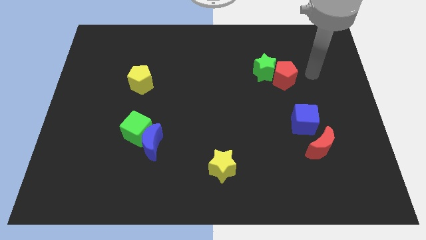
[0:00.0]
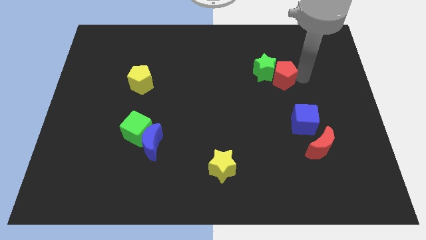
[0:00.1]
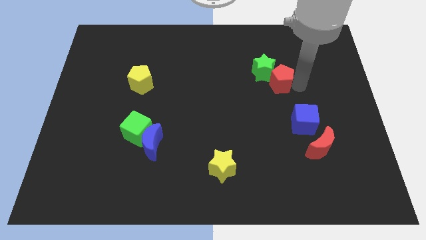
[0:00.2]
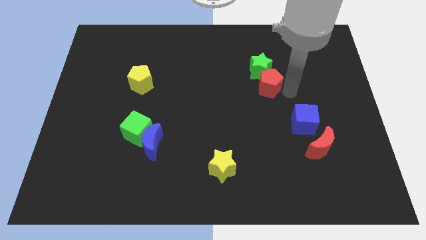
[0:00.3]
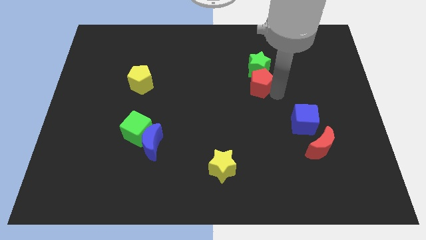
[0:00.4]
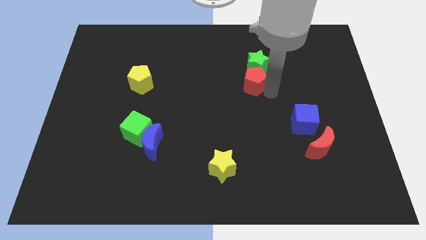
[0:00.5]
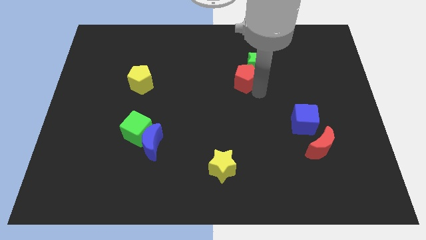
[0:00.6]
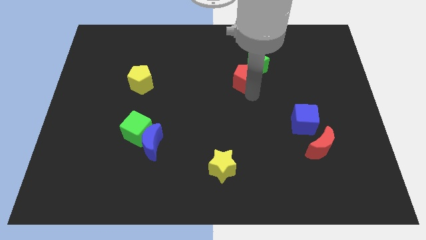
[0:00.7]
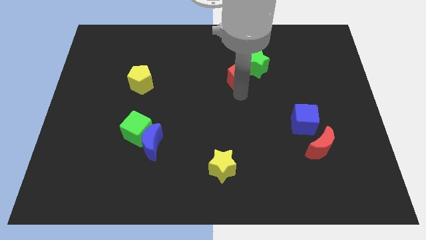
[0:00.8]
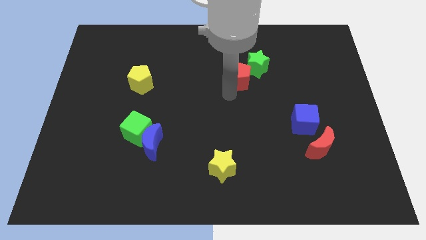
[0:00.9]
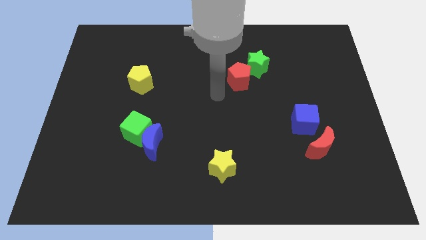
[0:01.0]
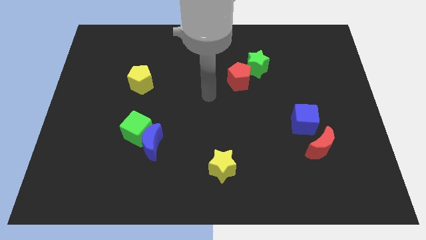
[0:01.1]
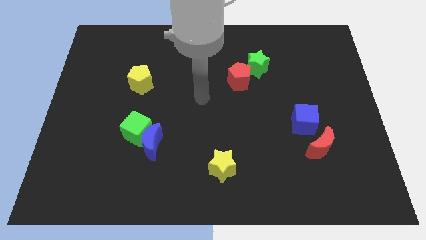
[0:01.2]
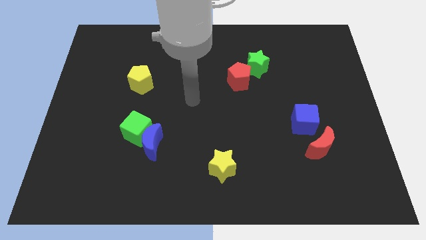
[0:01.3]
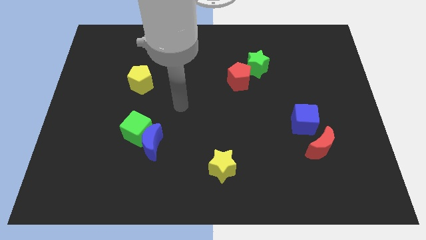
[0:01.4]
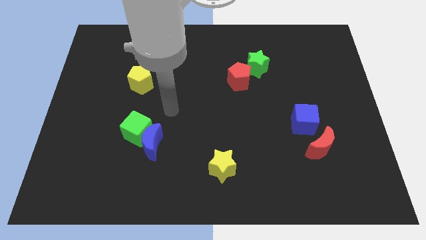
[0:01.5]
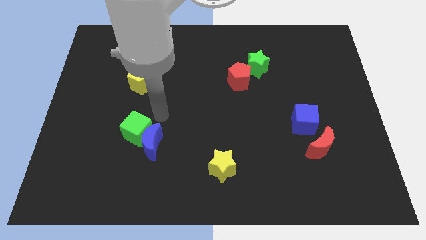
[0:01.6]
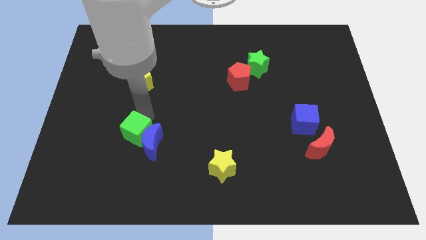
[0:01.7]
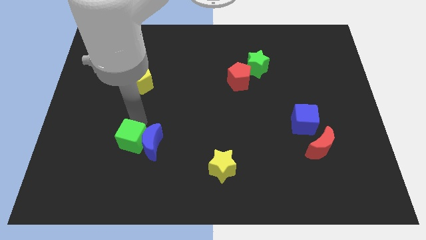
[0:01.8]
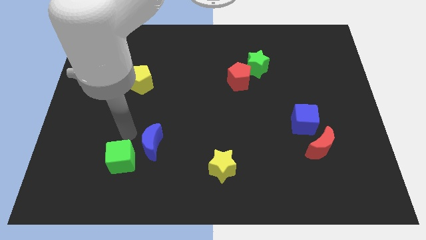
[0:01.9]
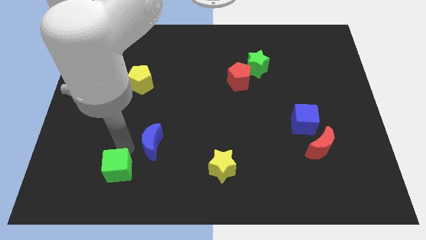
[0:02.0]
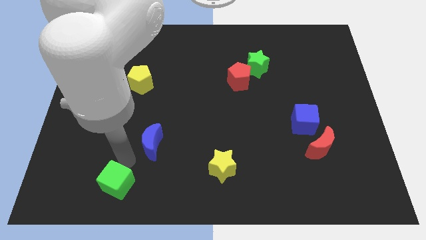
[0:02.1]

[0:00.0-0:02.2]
move the blue moon away from the green cube

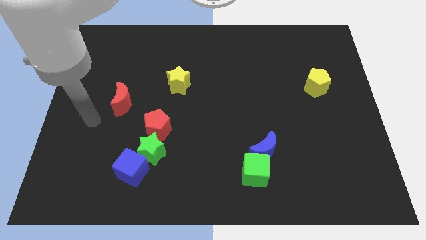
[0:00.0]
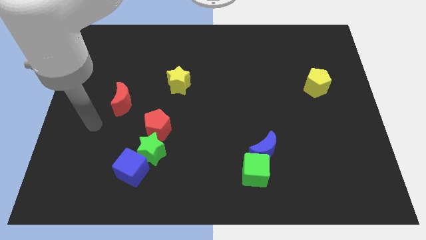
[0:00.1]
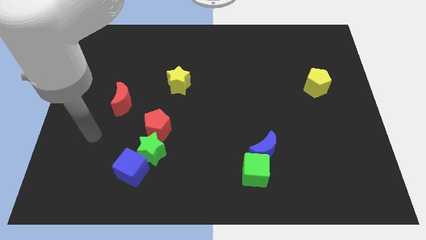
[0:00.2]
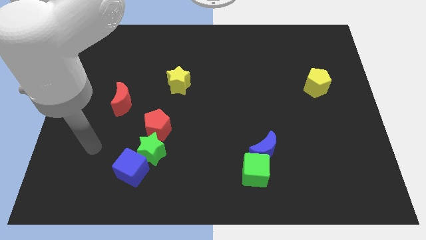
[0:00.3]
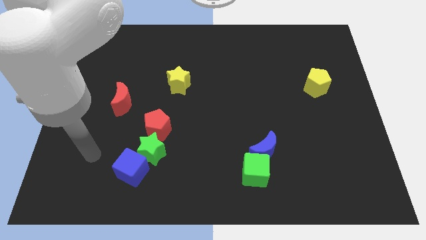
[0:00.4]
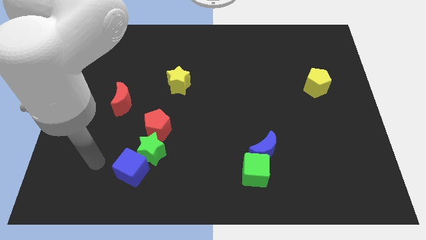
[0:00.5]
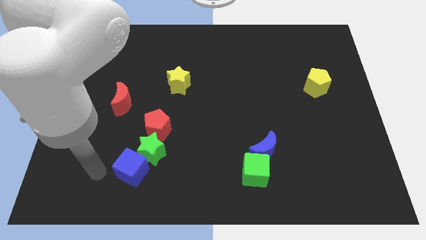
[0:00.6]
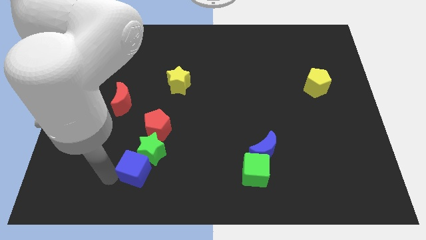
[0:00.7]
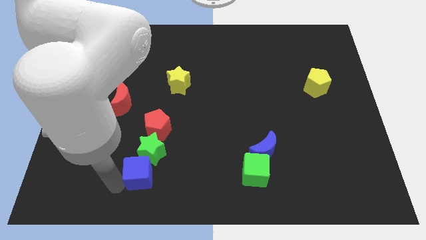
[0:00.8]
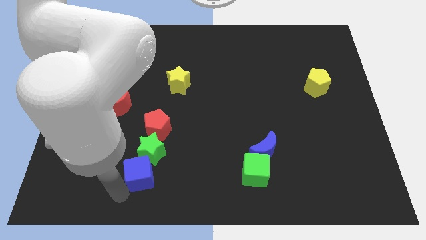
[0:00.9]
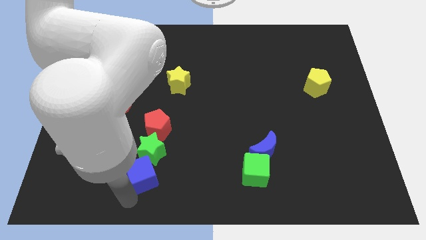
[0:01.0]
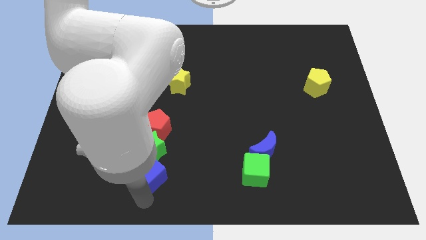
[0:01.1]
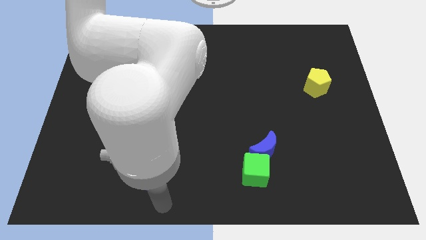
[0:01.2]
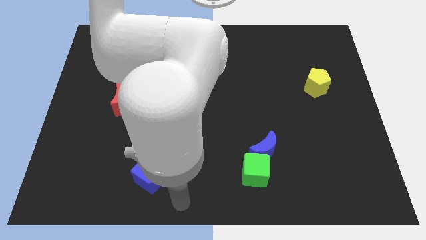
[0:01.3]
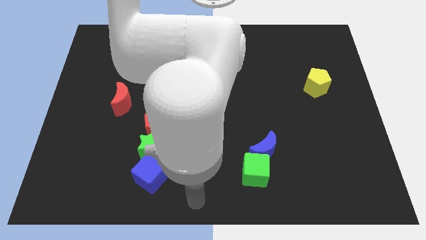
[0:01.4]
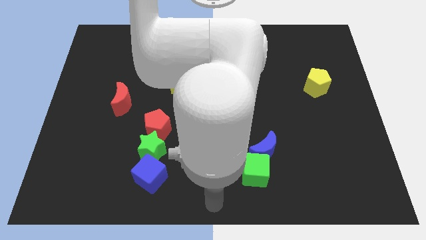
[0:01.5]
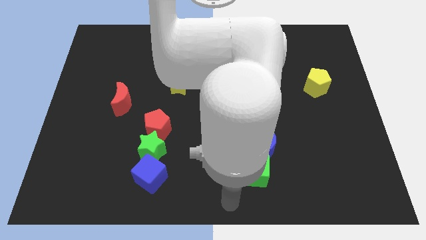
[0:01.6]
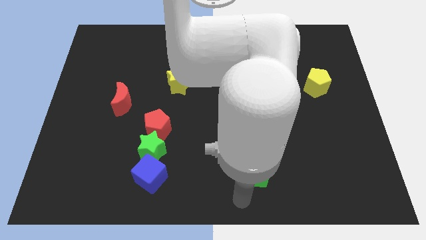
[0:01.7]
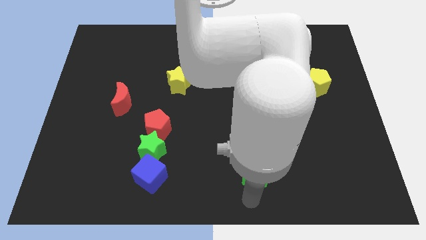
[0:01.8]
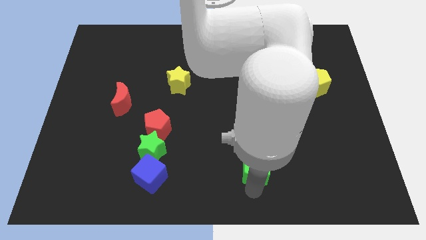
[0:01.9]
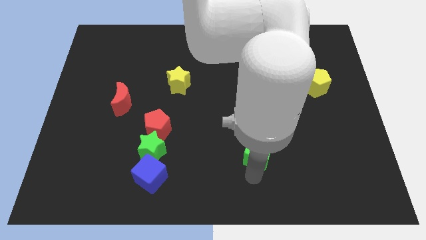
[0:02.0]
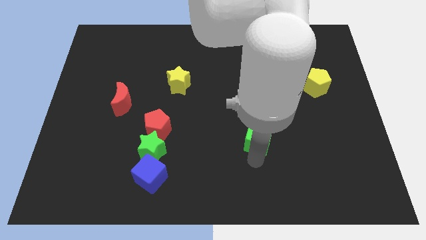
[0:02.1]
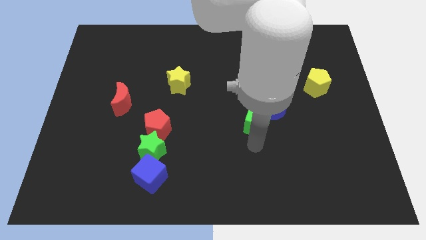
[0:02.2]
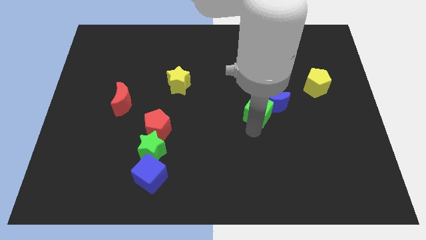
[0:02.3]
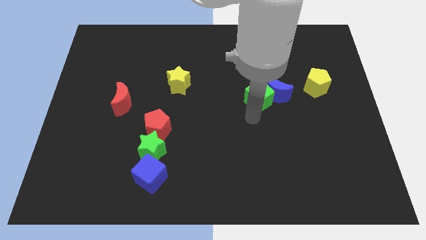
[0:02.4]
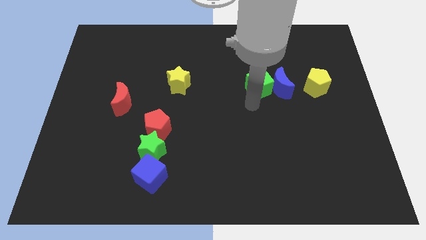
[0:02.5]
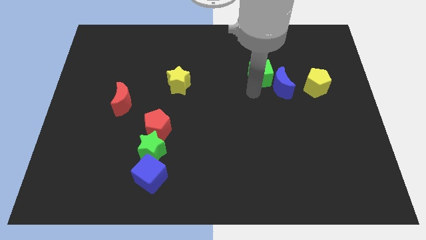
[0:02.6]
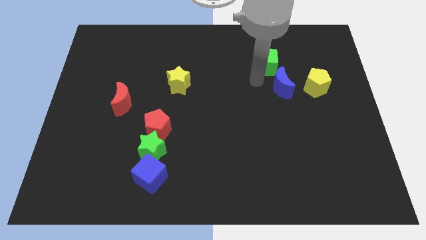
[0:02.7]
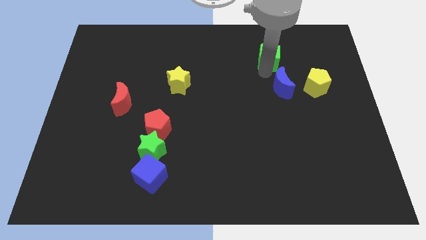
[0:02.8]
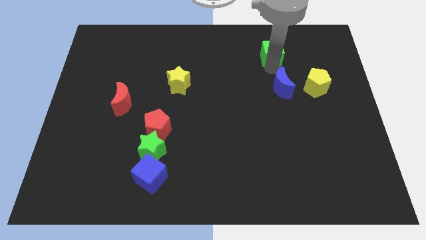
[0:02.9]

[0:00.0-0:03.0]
separate the blue moon from the green cube

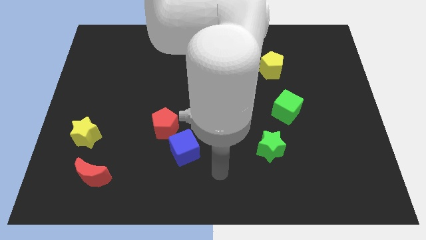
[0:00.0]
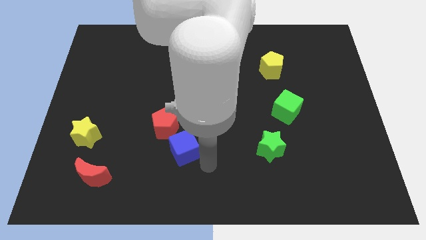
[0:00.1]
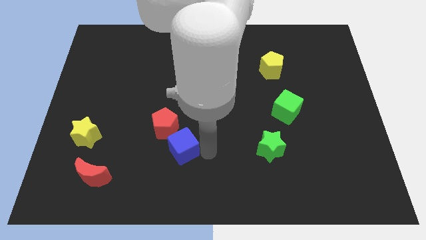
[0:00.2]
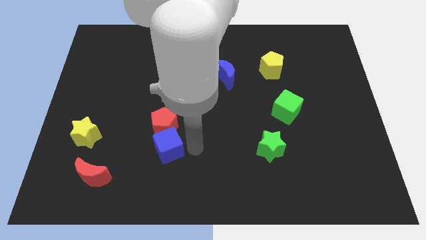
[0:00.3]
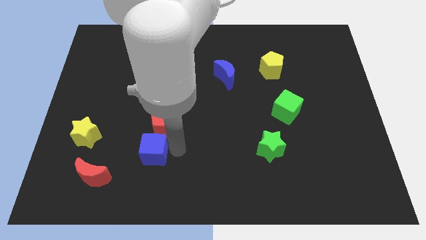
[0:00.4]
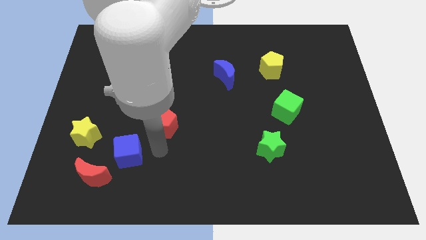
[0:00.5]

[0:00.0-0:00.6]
separate the red pentagon from the blue cube

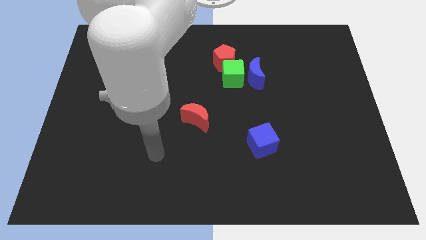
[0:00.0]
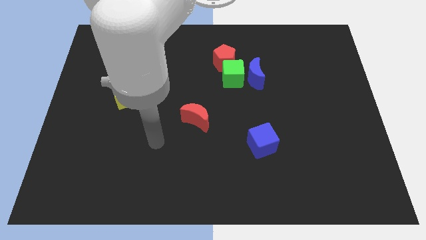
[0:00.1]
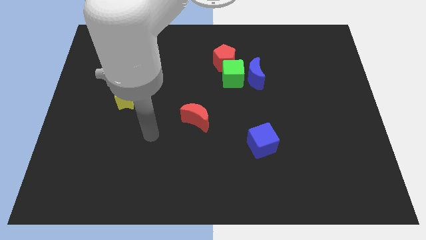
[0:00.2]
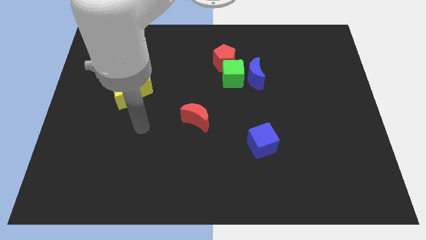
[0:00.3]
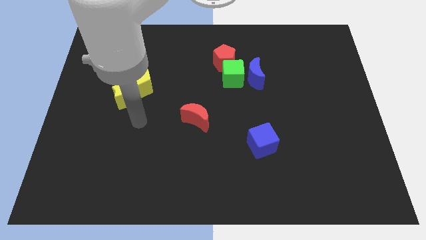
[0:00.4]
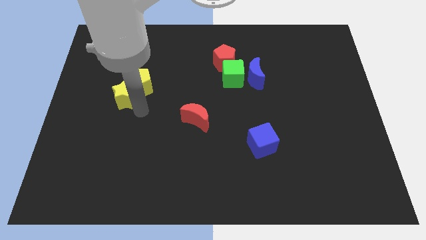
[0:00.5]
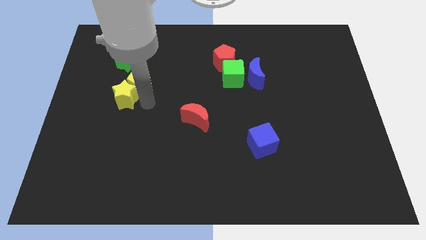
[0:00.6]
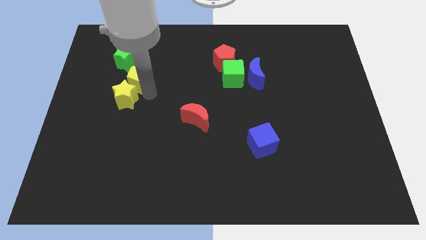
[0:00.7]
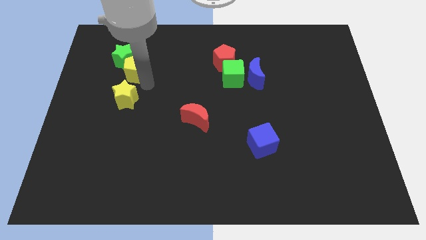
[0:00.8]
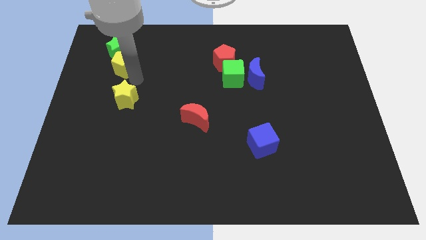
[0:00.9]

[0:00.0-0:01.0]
move the yellow star away from the yellow pentagon

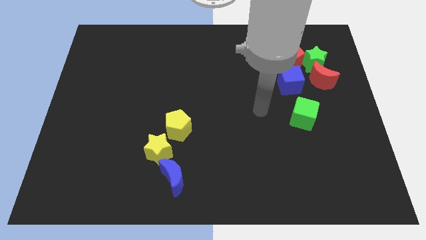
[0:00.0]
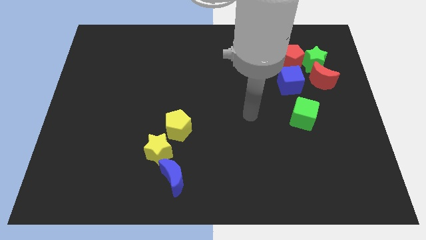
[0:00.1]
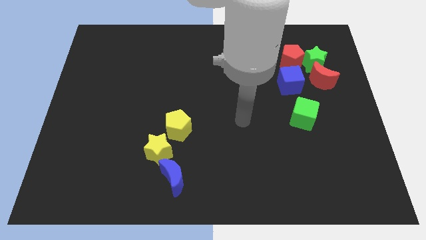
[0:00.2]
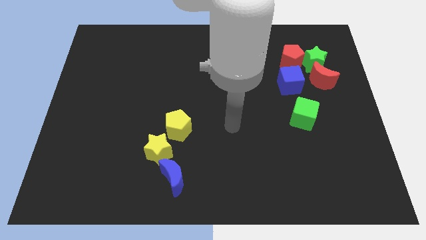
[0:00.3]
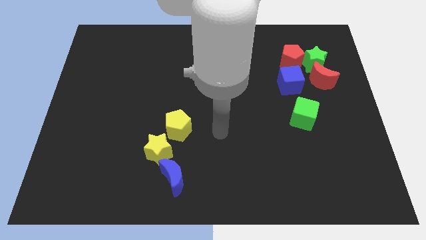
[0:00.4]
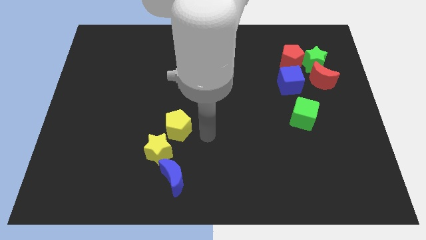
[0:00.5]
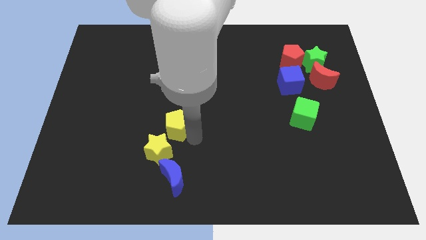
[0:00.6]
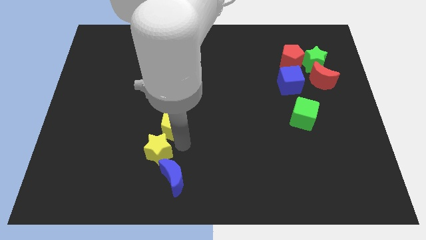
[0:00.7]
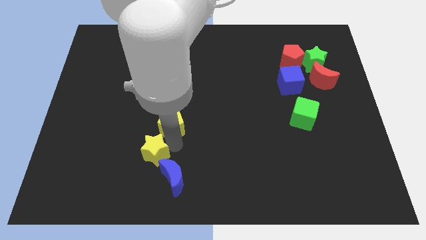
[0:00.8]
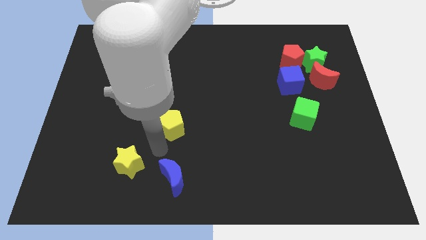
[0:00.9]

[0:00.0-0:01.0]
pull the yellow pentagon apart from the yellow star

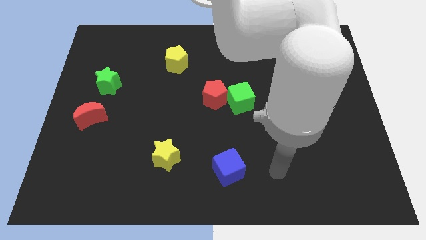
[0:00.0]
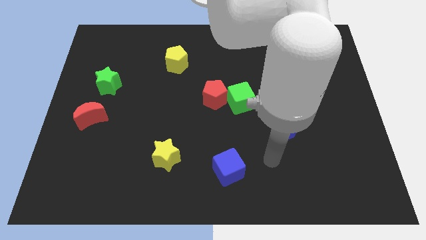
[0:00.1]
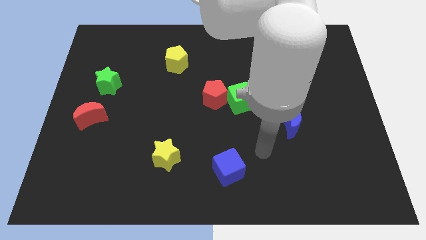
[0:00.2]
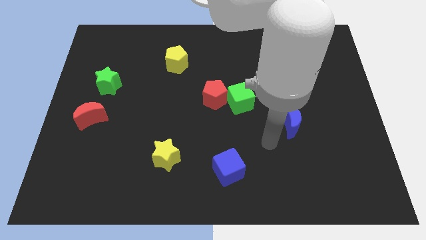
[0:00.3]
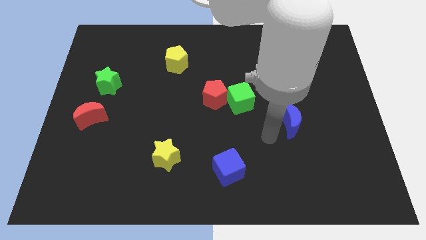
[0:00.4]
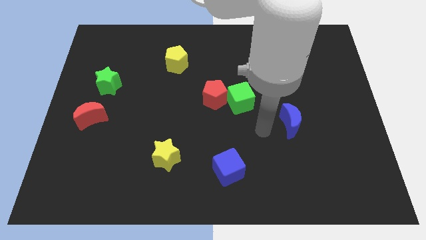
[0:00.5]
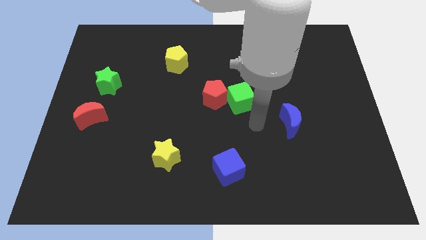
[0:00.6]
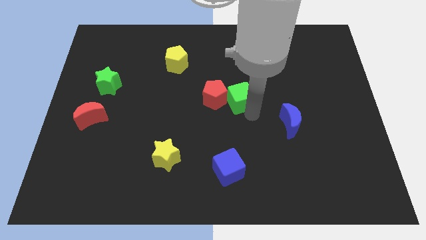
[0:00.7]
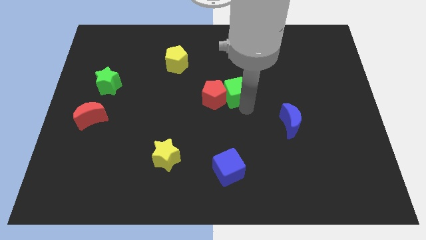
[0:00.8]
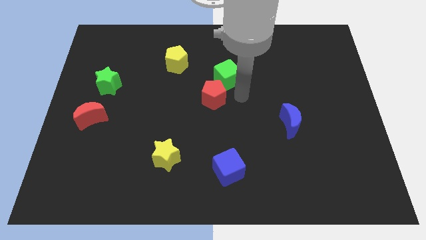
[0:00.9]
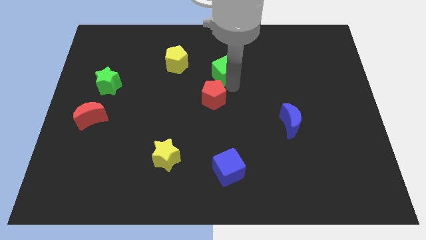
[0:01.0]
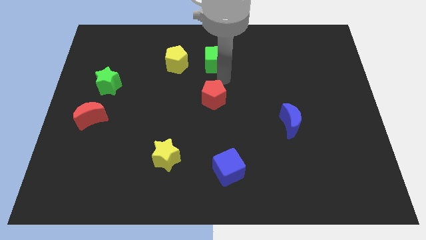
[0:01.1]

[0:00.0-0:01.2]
move the red pentagon away from the green cube

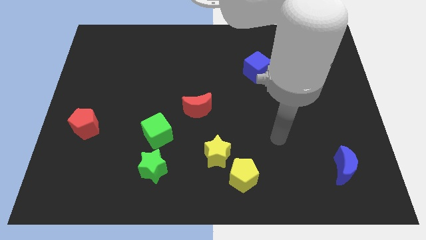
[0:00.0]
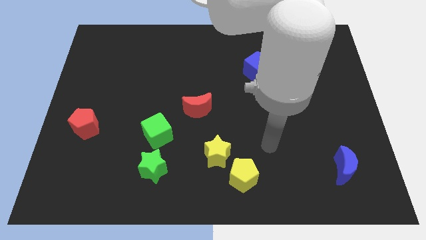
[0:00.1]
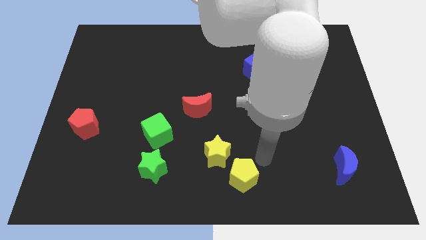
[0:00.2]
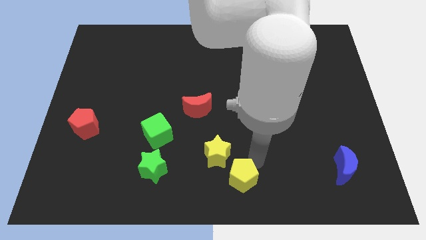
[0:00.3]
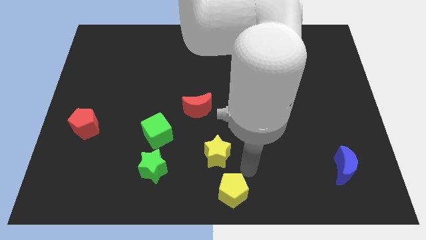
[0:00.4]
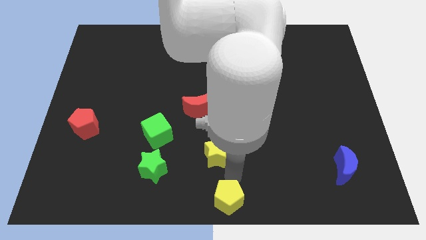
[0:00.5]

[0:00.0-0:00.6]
separate the yellow star from the yellow pentagon
